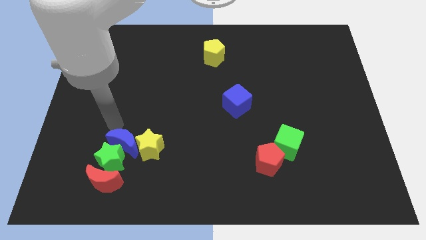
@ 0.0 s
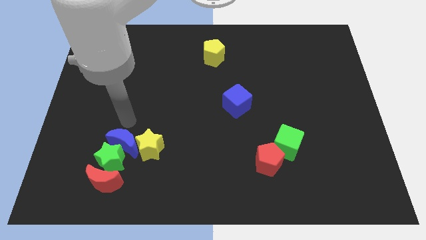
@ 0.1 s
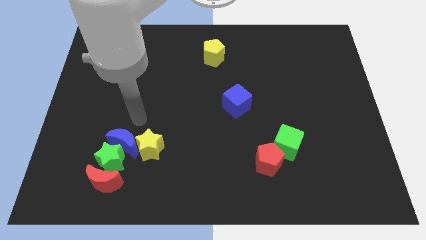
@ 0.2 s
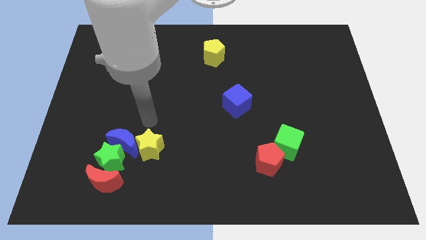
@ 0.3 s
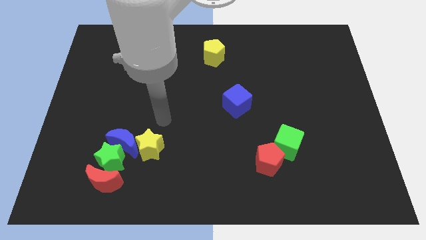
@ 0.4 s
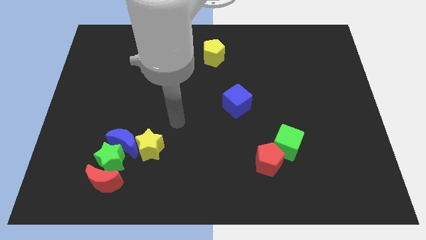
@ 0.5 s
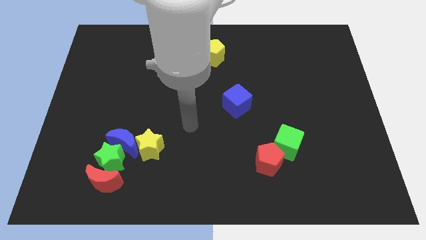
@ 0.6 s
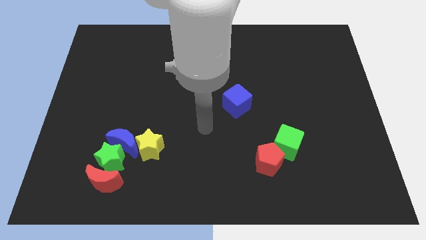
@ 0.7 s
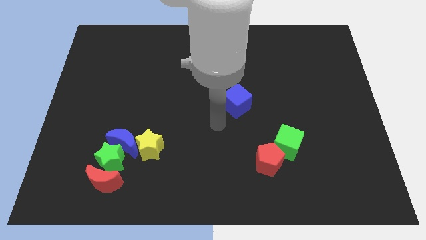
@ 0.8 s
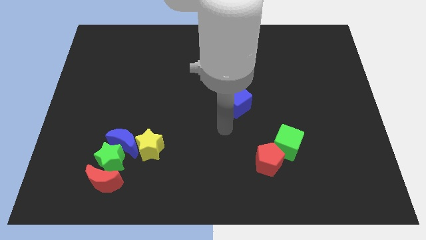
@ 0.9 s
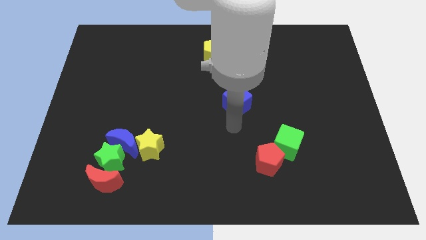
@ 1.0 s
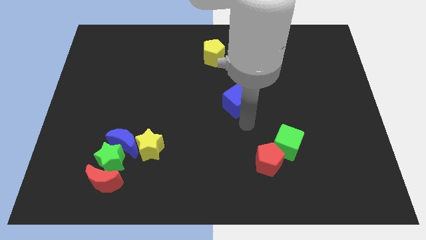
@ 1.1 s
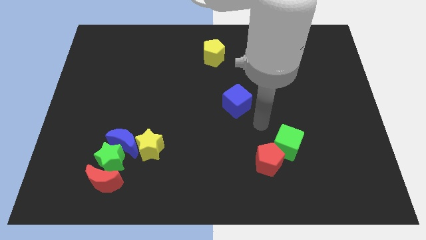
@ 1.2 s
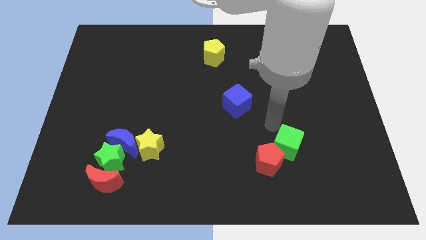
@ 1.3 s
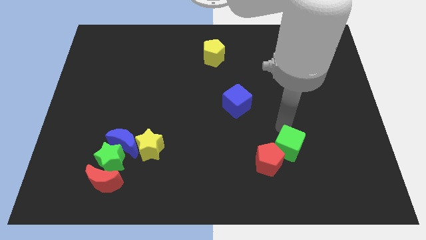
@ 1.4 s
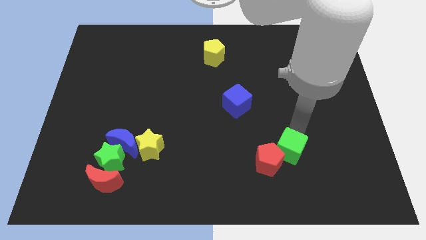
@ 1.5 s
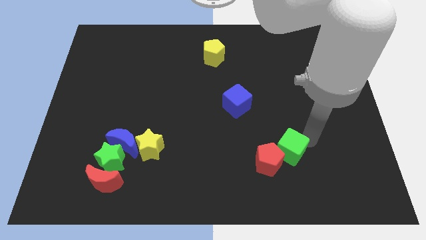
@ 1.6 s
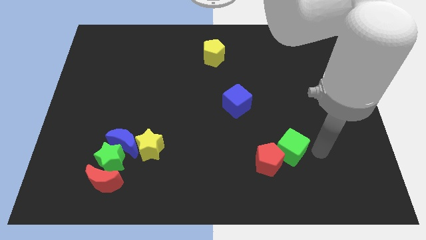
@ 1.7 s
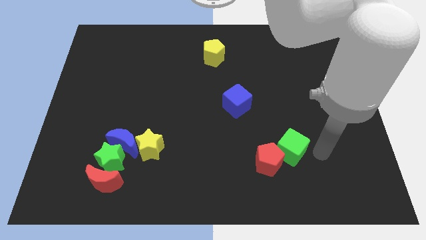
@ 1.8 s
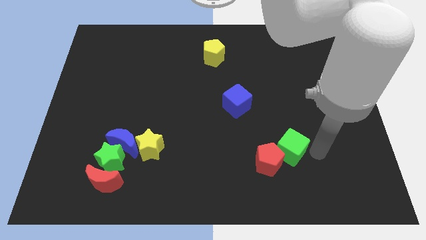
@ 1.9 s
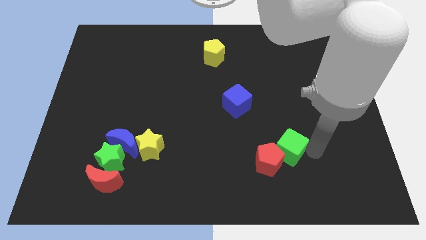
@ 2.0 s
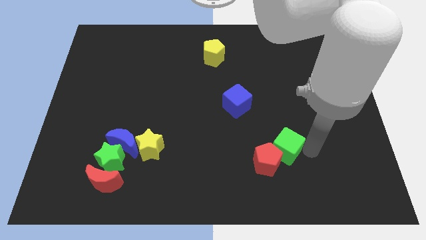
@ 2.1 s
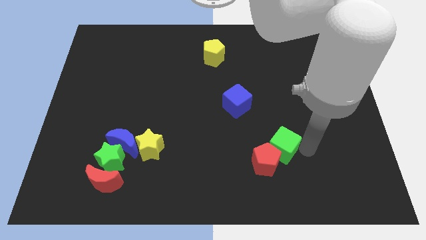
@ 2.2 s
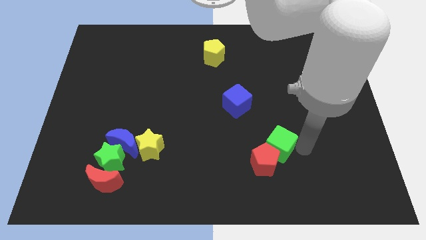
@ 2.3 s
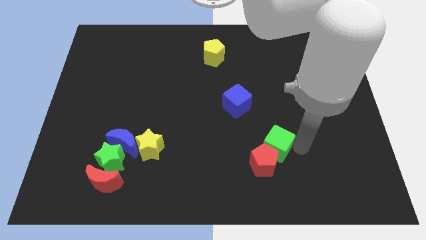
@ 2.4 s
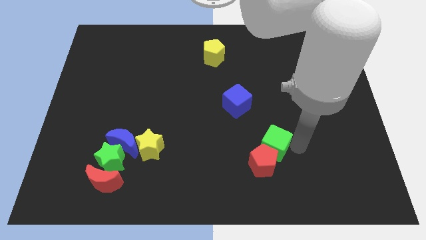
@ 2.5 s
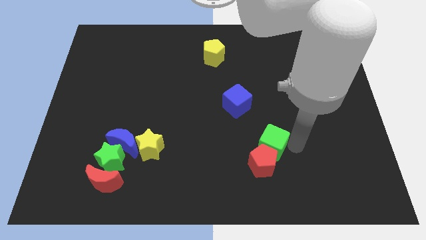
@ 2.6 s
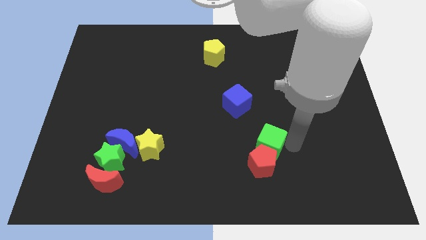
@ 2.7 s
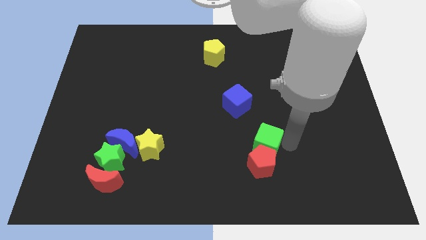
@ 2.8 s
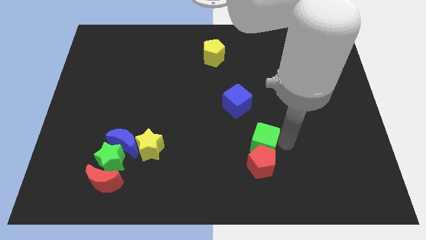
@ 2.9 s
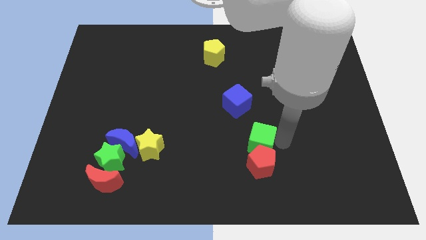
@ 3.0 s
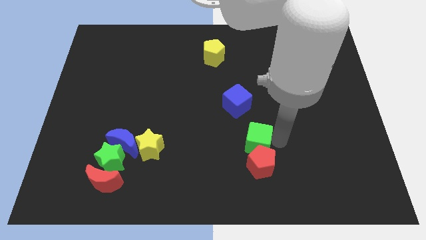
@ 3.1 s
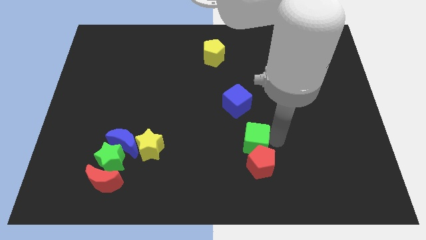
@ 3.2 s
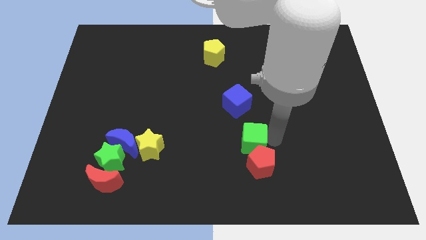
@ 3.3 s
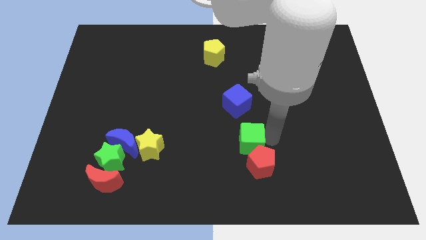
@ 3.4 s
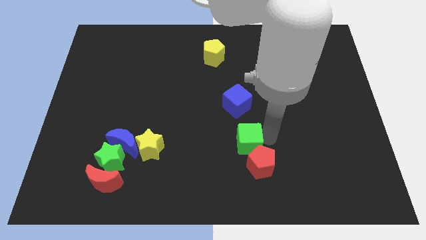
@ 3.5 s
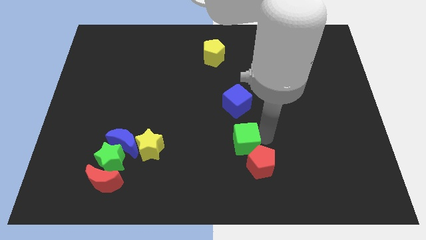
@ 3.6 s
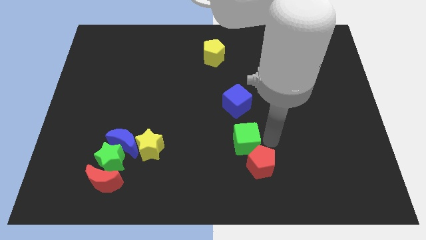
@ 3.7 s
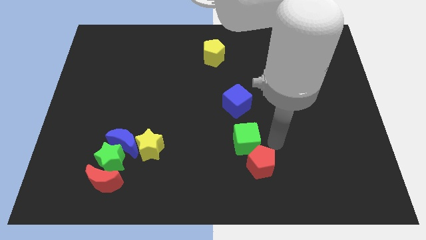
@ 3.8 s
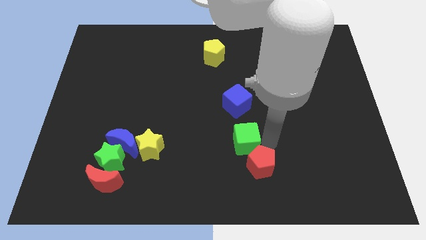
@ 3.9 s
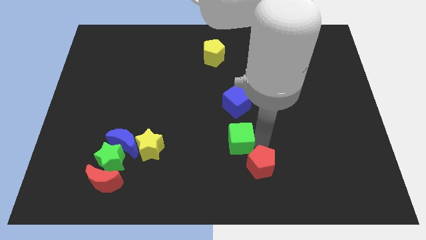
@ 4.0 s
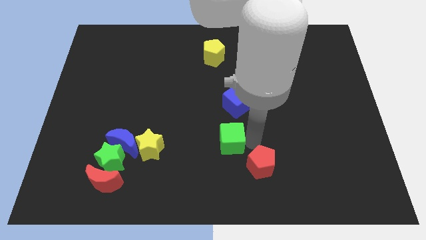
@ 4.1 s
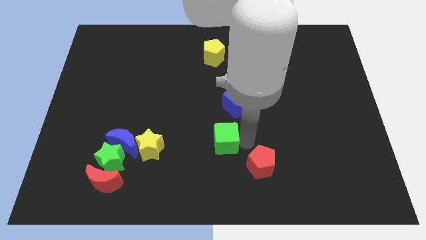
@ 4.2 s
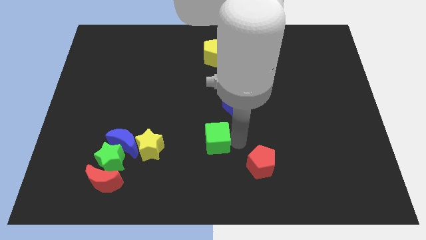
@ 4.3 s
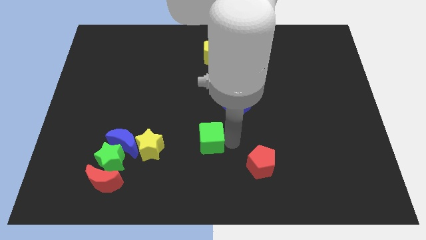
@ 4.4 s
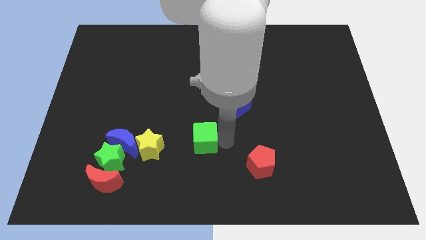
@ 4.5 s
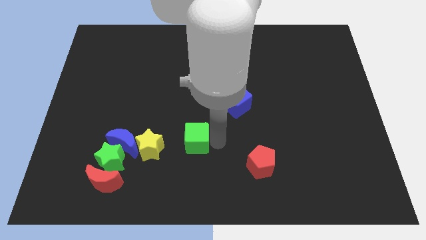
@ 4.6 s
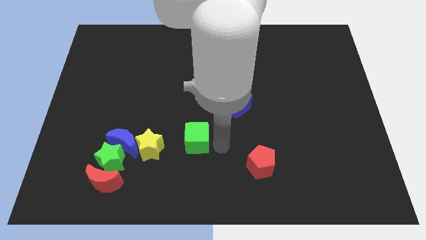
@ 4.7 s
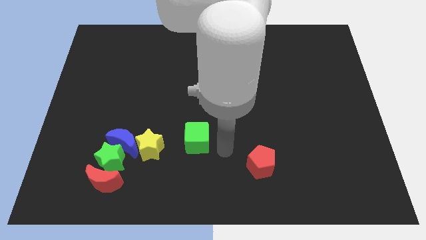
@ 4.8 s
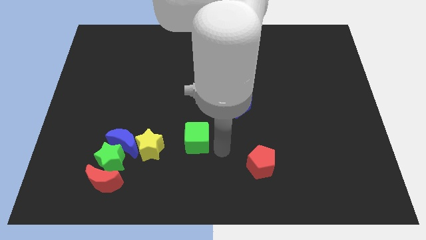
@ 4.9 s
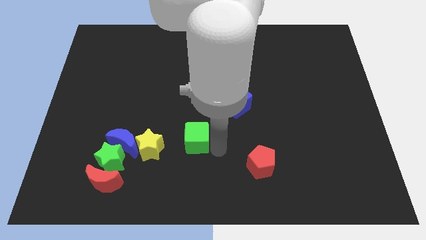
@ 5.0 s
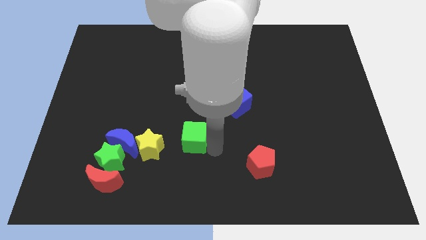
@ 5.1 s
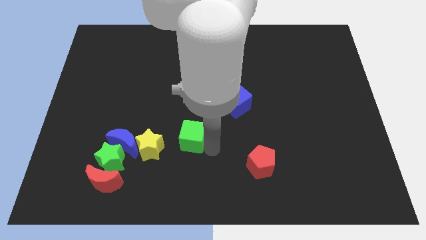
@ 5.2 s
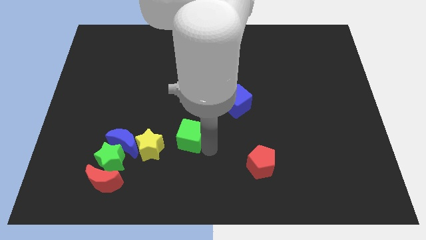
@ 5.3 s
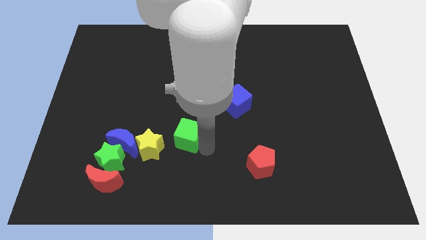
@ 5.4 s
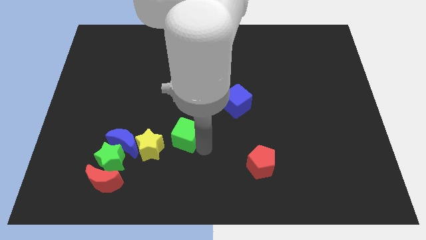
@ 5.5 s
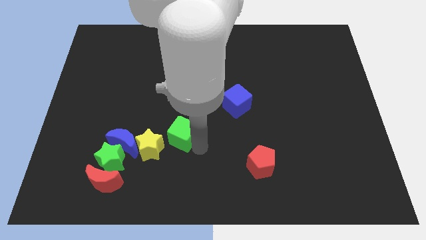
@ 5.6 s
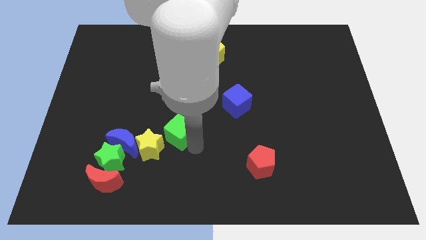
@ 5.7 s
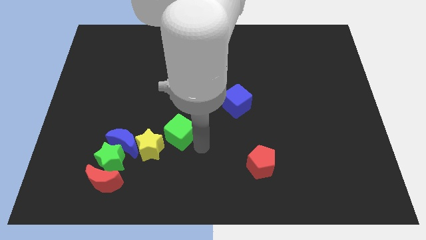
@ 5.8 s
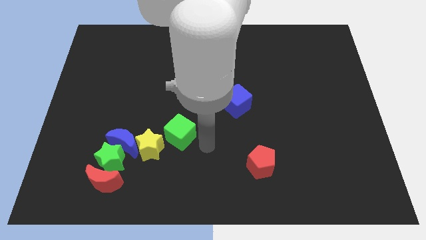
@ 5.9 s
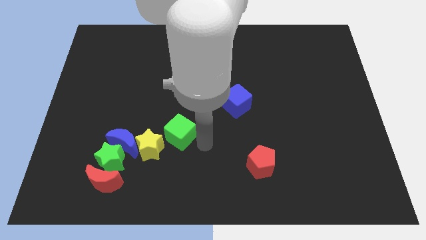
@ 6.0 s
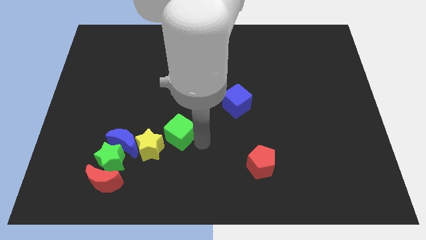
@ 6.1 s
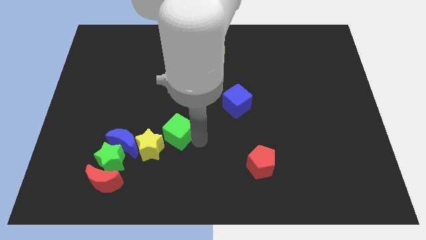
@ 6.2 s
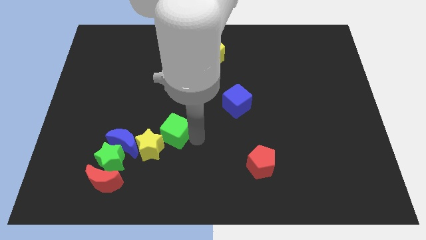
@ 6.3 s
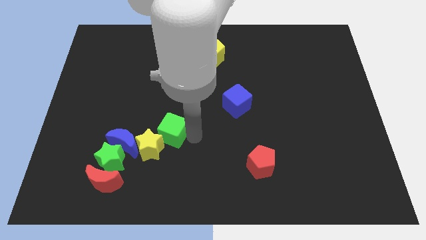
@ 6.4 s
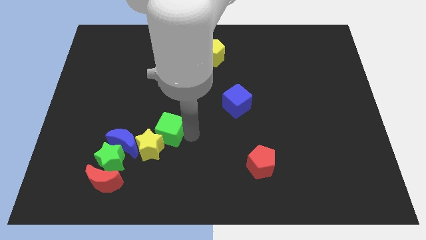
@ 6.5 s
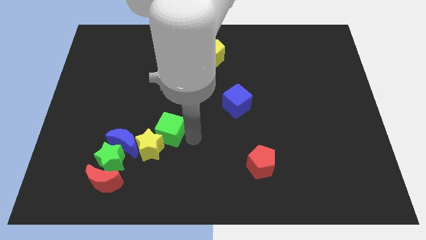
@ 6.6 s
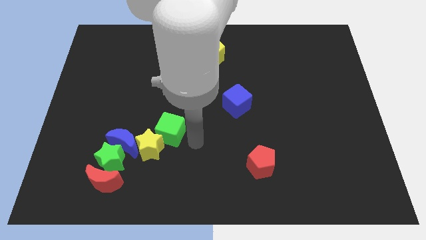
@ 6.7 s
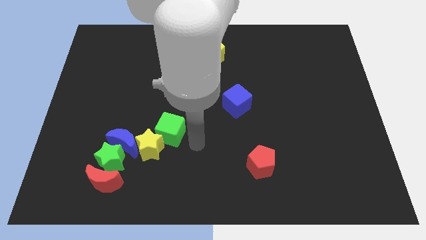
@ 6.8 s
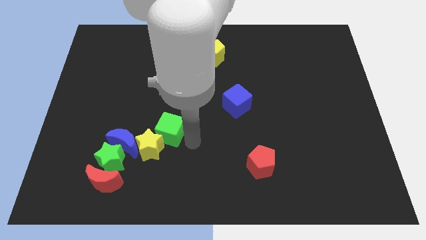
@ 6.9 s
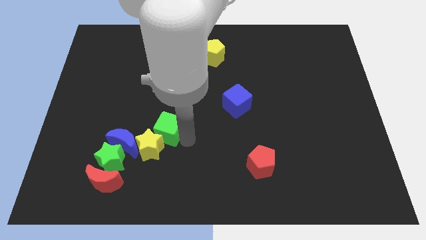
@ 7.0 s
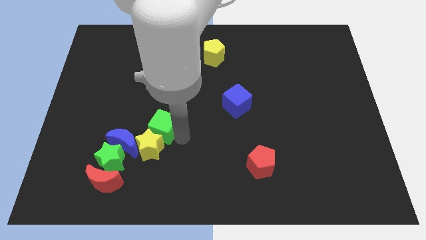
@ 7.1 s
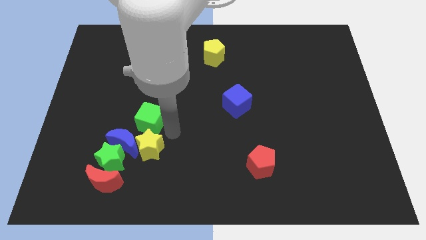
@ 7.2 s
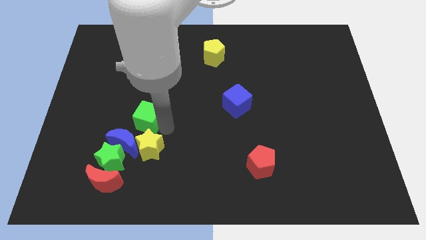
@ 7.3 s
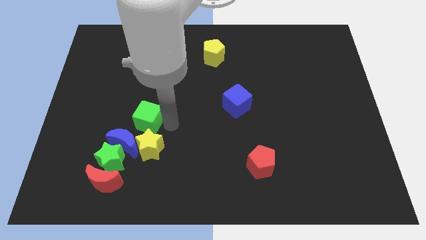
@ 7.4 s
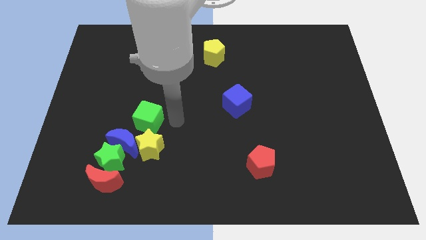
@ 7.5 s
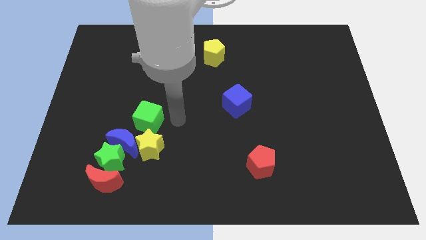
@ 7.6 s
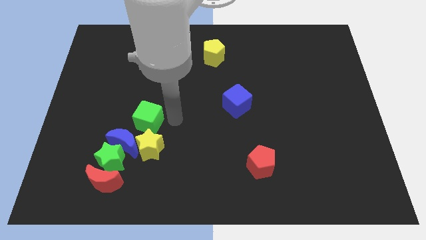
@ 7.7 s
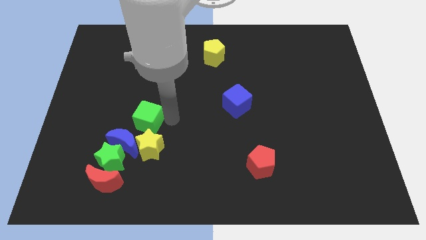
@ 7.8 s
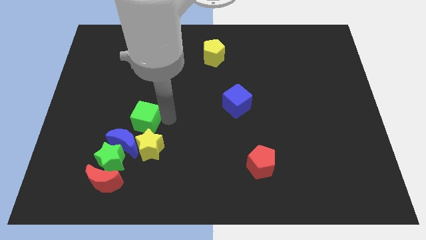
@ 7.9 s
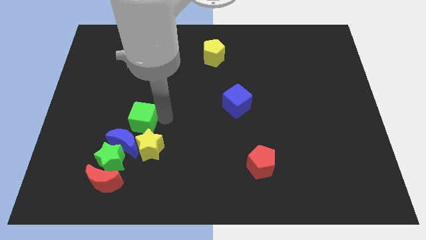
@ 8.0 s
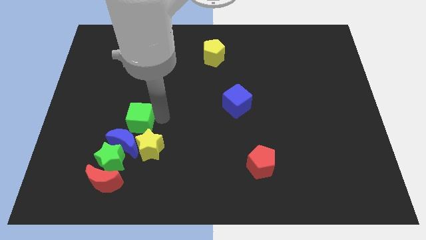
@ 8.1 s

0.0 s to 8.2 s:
move the green cube above the green star
